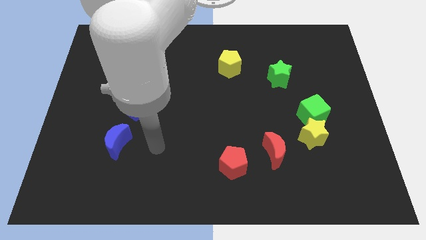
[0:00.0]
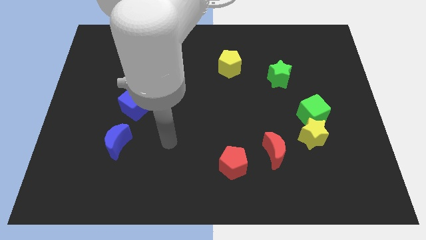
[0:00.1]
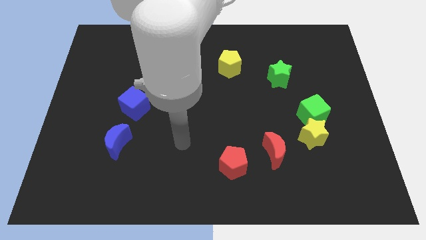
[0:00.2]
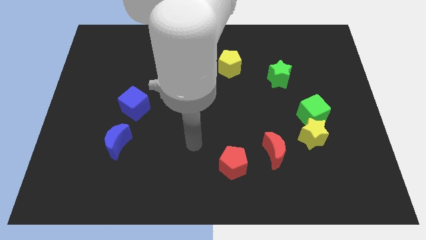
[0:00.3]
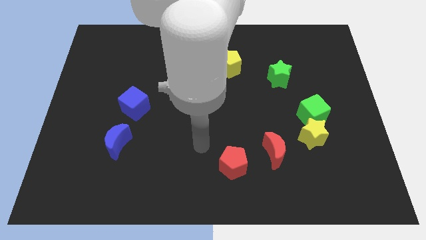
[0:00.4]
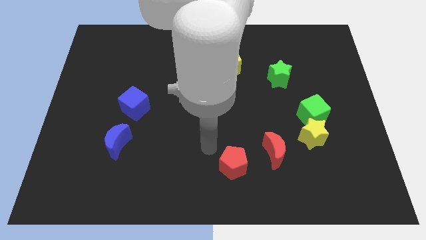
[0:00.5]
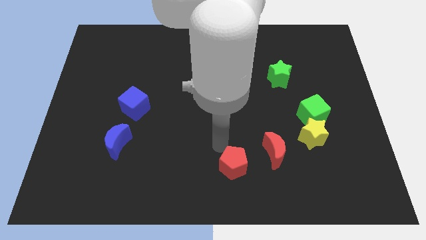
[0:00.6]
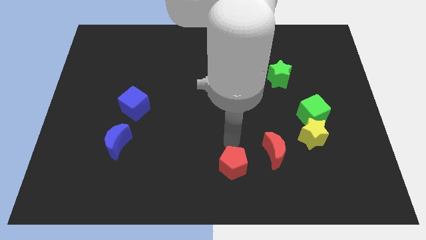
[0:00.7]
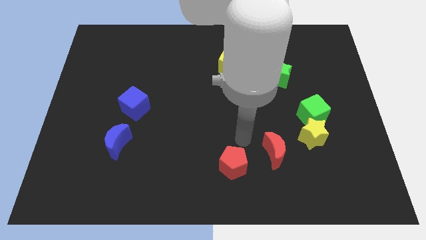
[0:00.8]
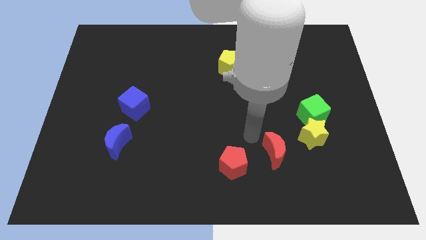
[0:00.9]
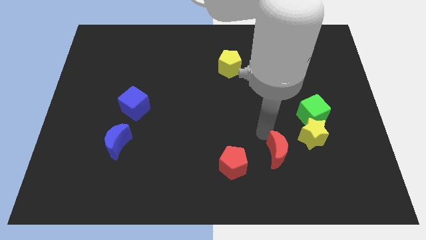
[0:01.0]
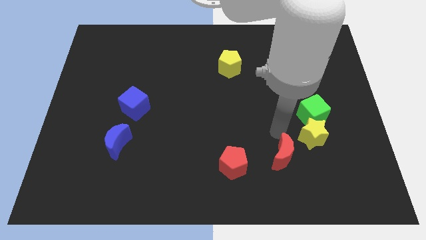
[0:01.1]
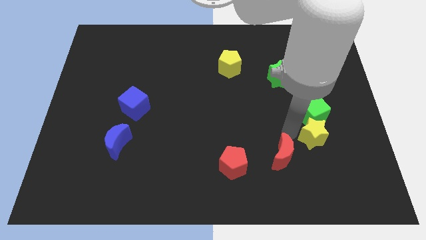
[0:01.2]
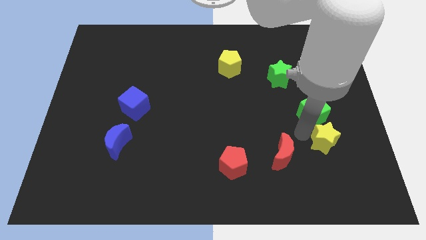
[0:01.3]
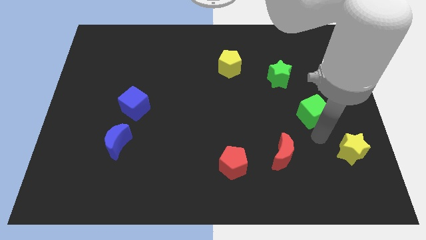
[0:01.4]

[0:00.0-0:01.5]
move the green cube away from the yellow star

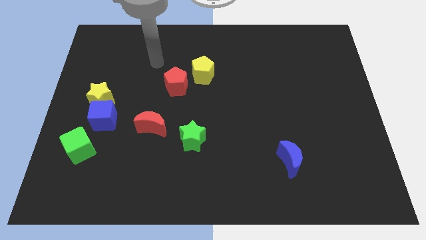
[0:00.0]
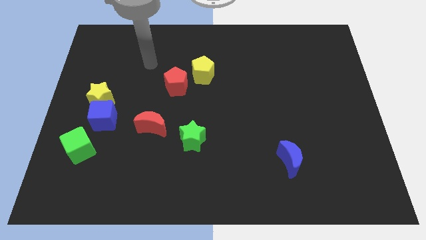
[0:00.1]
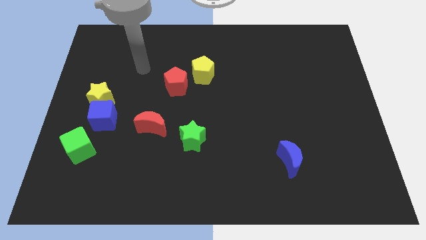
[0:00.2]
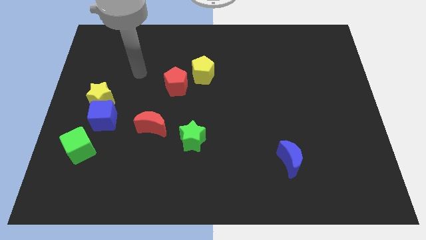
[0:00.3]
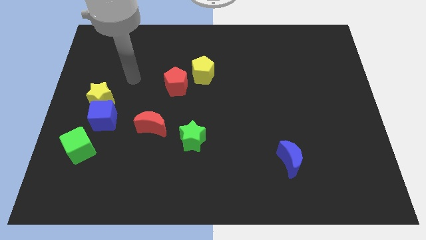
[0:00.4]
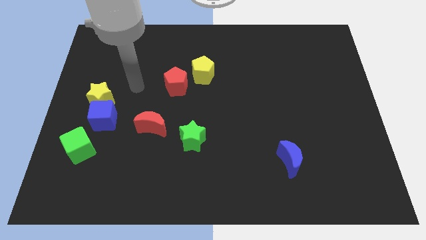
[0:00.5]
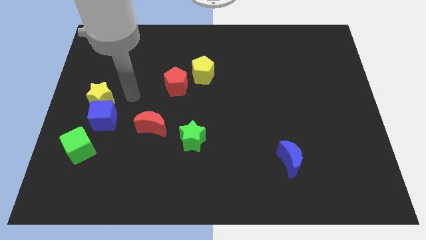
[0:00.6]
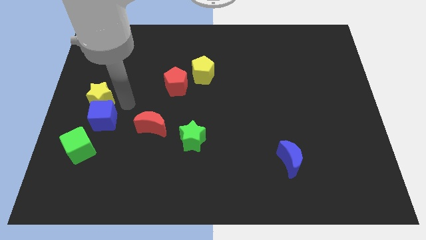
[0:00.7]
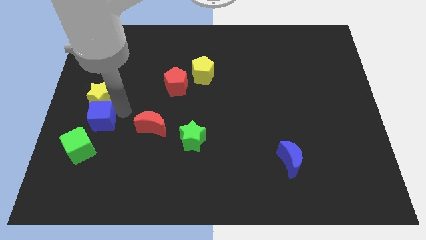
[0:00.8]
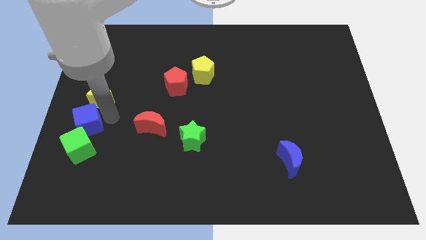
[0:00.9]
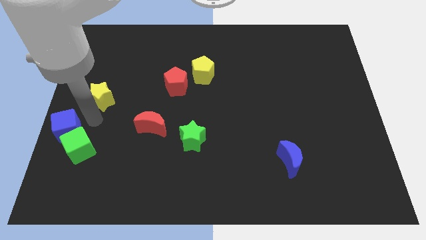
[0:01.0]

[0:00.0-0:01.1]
separate the yellow star from the blue cube

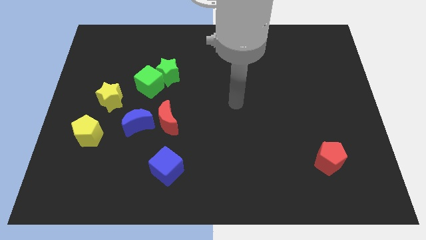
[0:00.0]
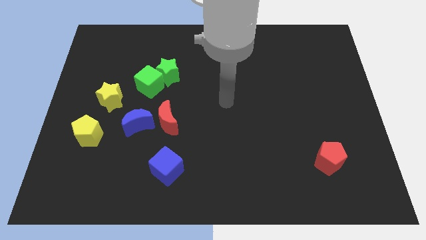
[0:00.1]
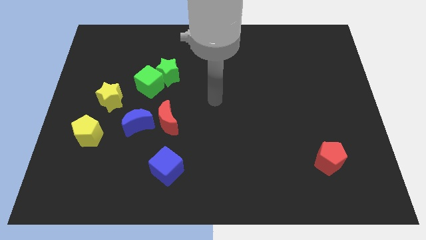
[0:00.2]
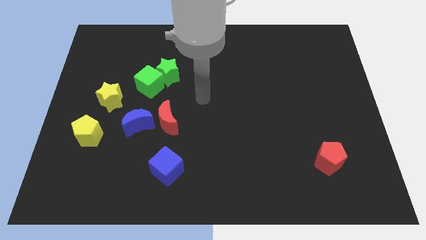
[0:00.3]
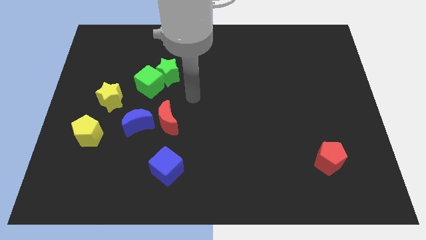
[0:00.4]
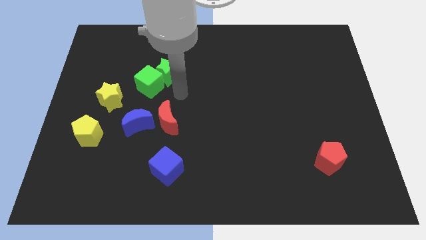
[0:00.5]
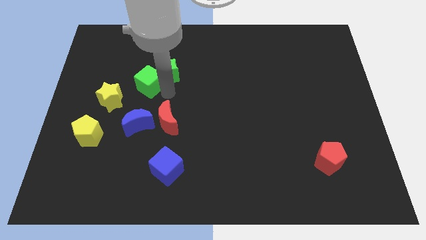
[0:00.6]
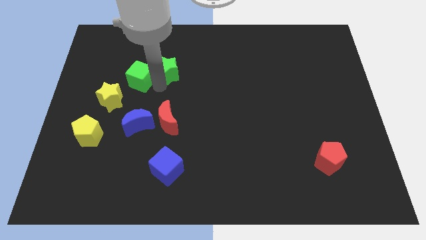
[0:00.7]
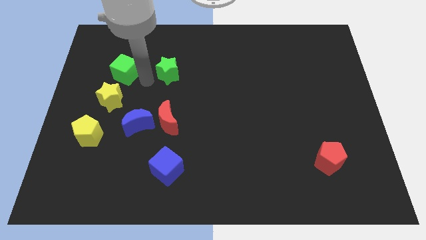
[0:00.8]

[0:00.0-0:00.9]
pull the green star apart from the green cube

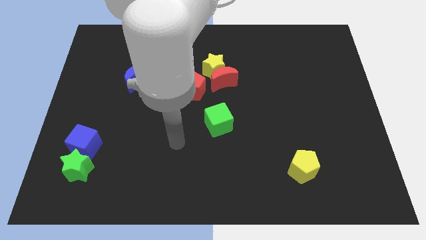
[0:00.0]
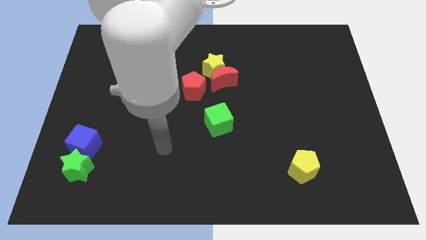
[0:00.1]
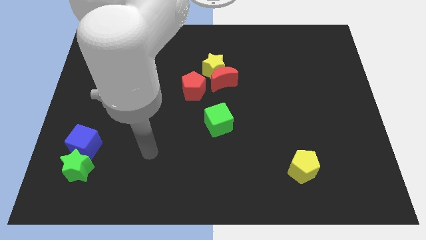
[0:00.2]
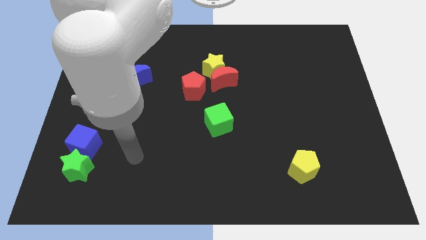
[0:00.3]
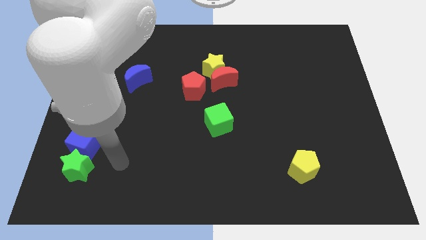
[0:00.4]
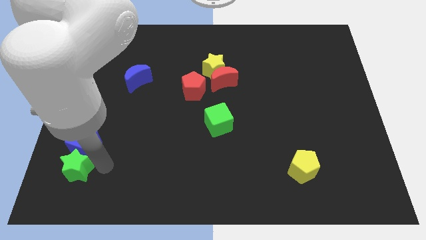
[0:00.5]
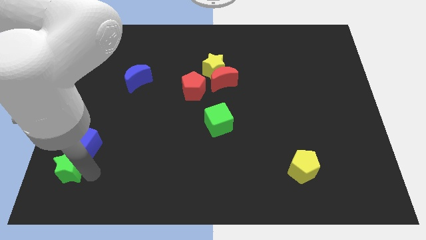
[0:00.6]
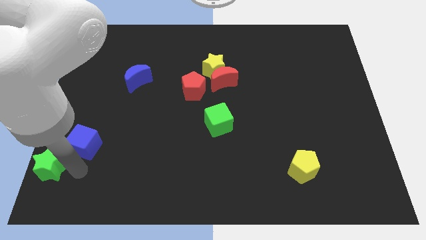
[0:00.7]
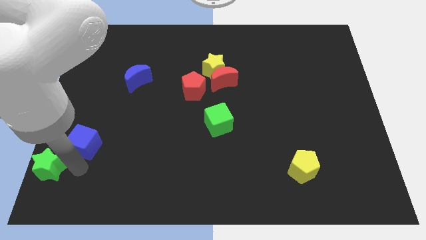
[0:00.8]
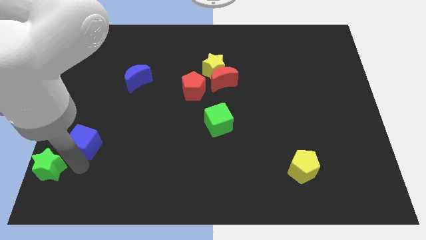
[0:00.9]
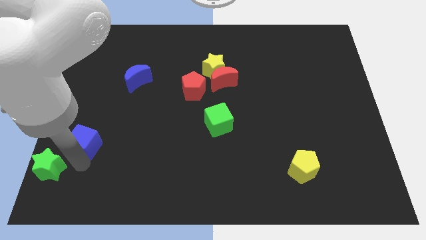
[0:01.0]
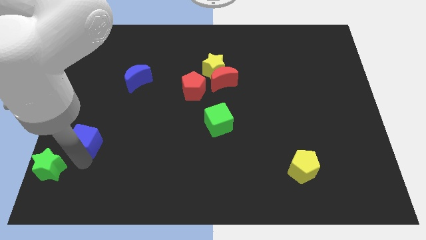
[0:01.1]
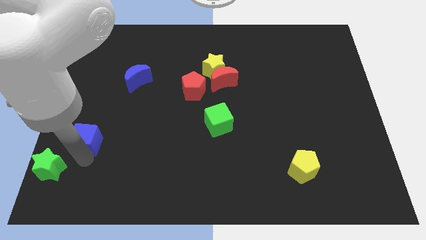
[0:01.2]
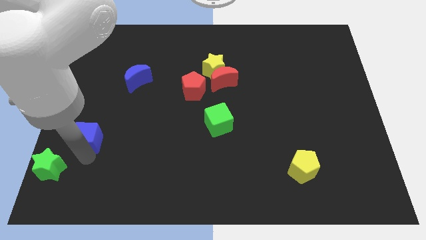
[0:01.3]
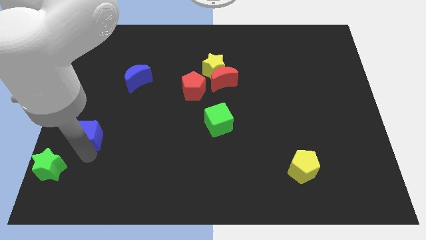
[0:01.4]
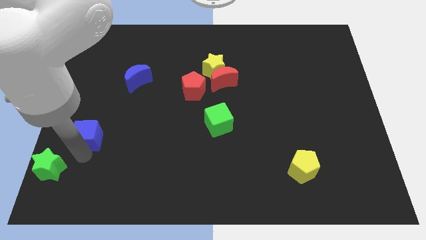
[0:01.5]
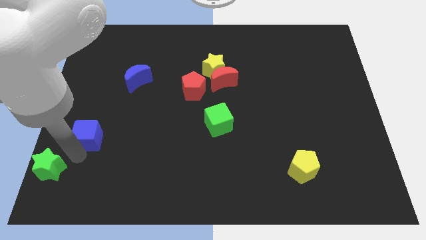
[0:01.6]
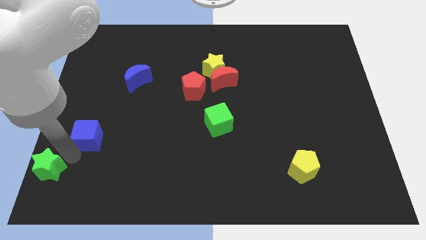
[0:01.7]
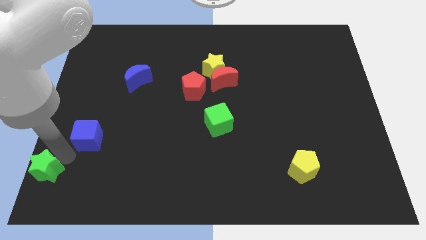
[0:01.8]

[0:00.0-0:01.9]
pull the blue cube apart from the green star

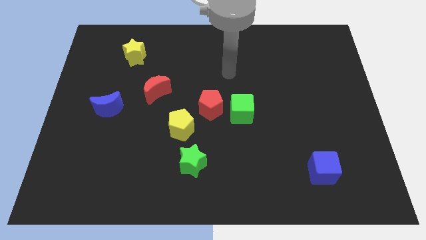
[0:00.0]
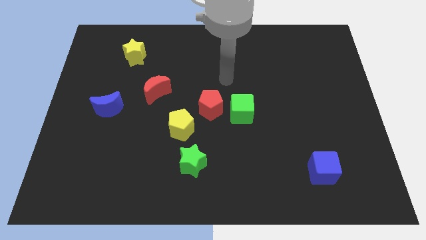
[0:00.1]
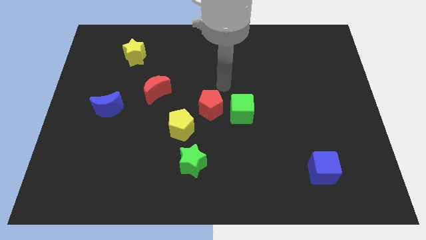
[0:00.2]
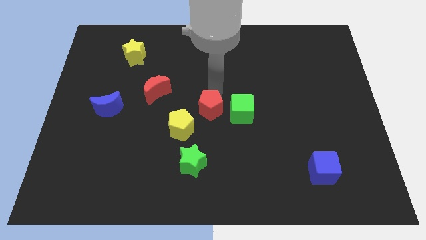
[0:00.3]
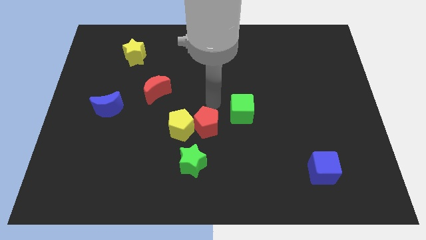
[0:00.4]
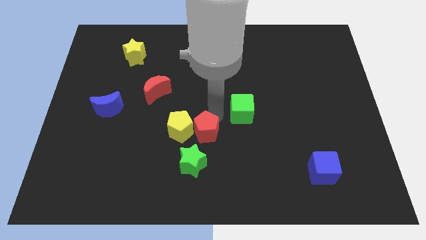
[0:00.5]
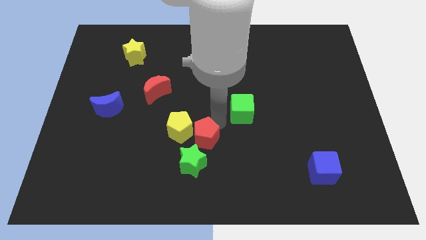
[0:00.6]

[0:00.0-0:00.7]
separate the green cube from the red pentagon

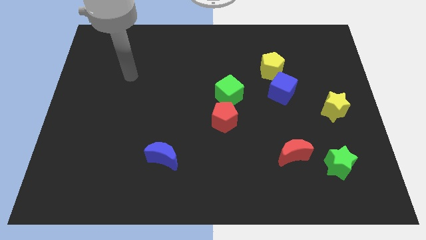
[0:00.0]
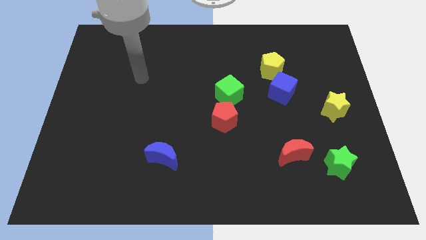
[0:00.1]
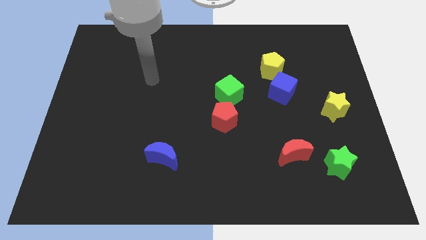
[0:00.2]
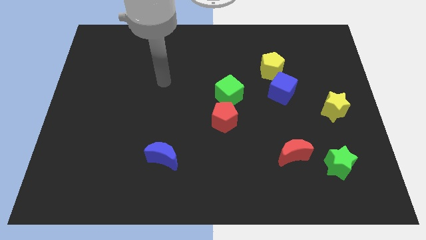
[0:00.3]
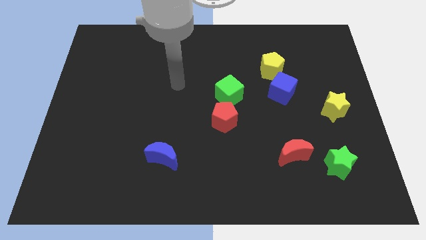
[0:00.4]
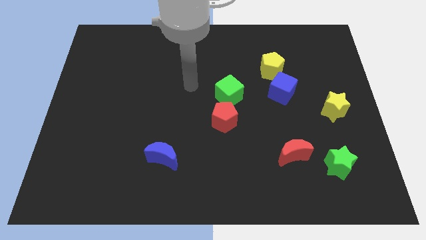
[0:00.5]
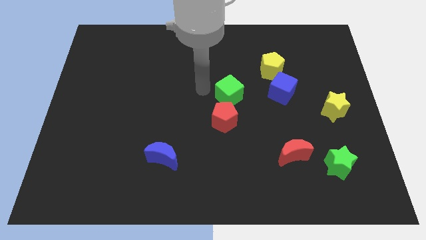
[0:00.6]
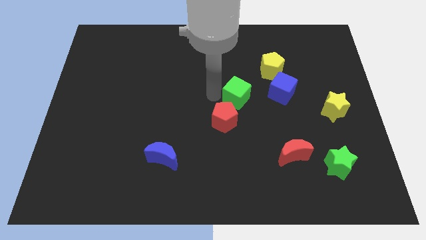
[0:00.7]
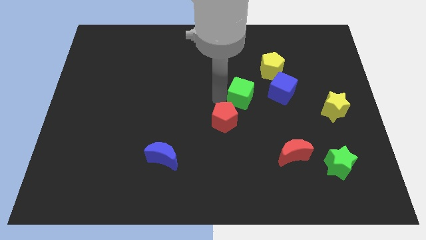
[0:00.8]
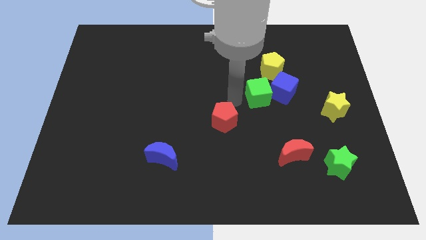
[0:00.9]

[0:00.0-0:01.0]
separate the red pentagon from the green cube

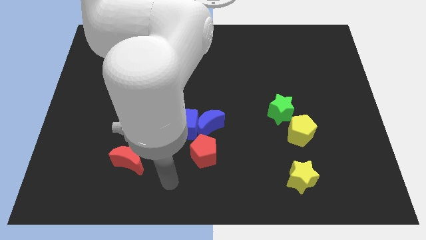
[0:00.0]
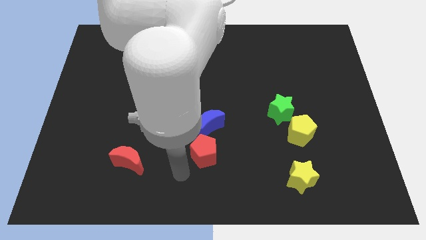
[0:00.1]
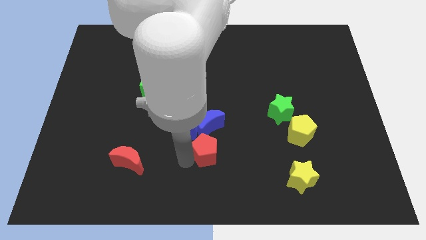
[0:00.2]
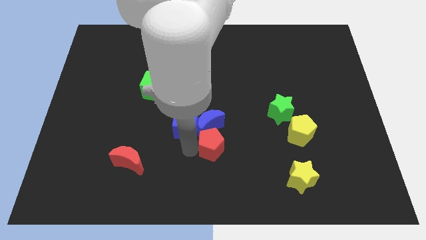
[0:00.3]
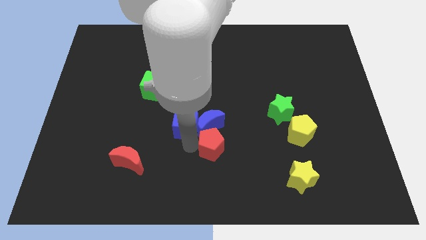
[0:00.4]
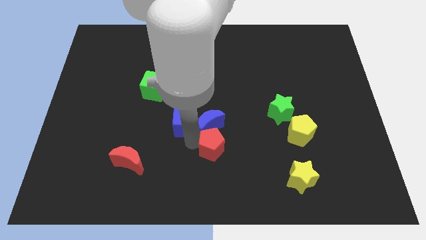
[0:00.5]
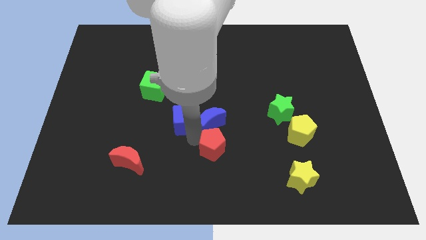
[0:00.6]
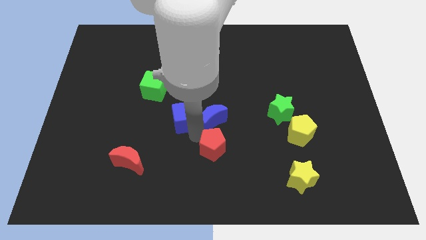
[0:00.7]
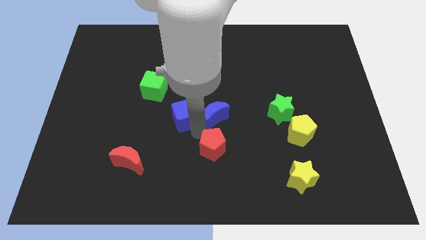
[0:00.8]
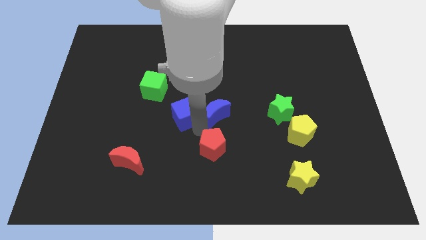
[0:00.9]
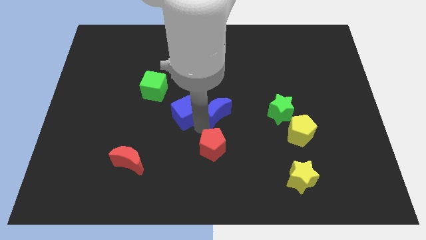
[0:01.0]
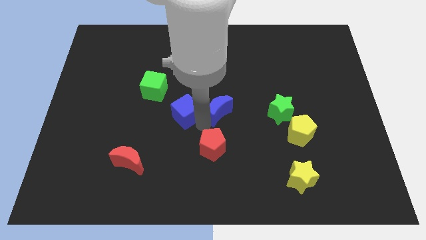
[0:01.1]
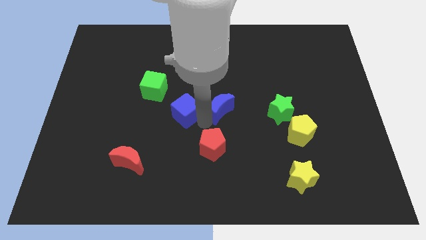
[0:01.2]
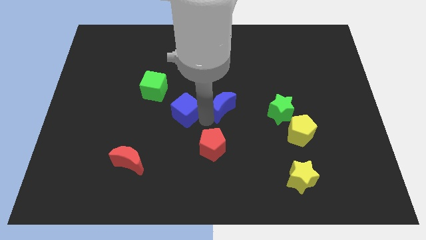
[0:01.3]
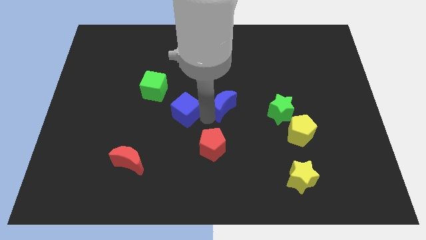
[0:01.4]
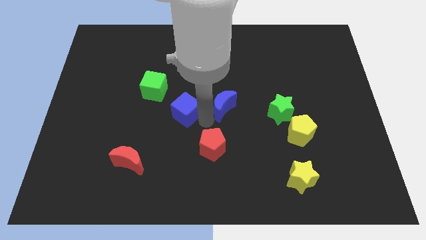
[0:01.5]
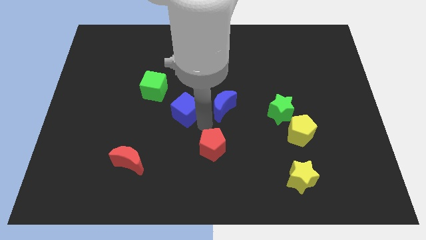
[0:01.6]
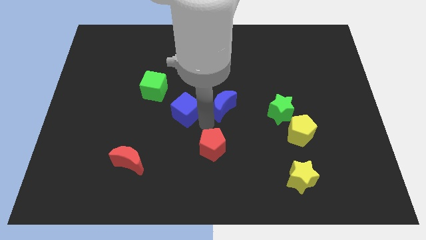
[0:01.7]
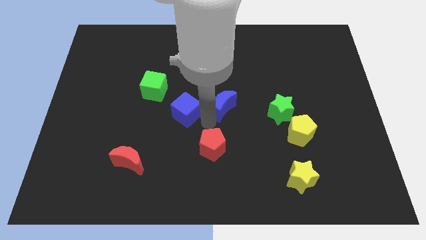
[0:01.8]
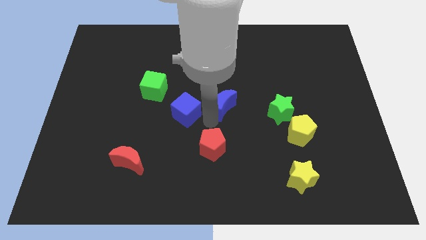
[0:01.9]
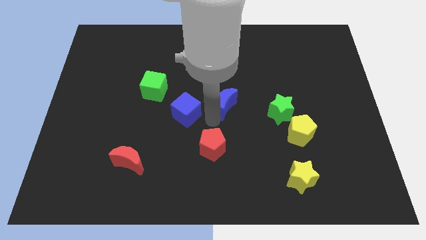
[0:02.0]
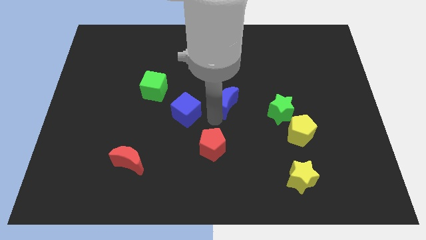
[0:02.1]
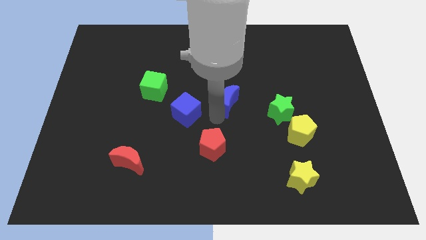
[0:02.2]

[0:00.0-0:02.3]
move the blue moon away from the blue cube and red pentagon
